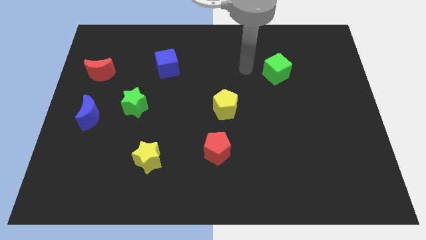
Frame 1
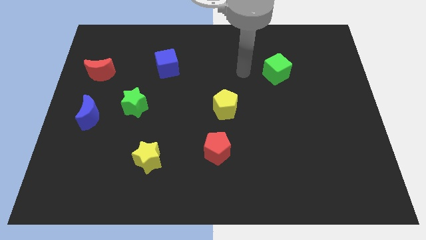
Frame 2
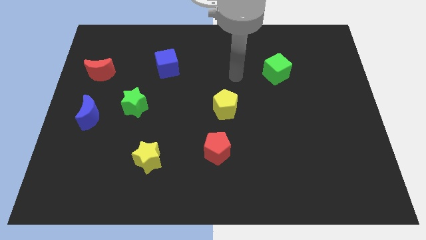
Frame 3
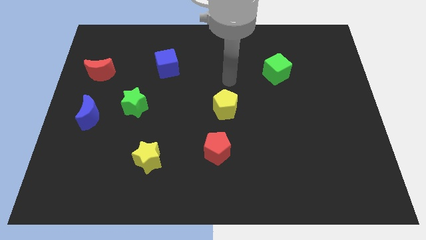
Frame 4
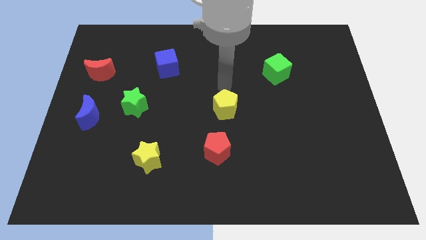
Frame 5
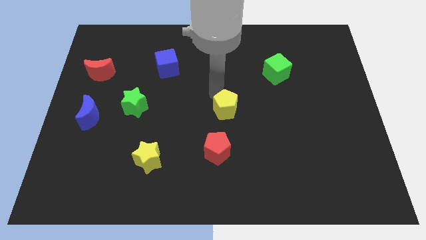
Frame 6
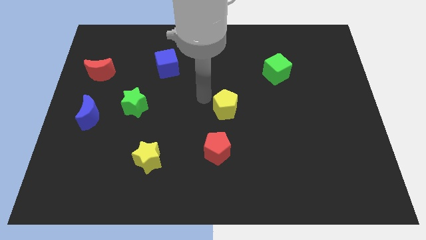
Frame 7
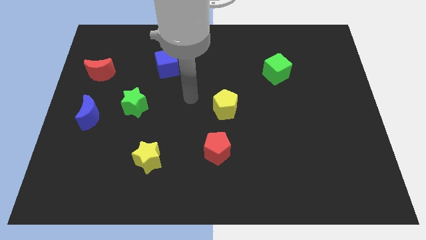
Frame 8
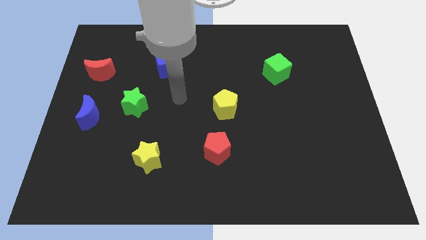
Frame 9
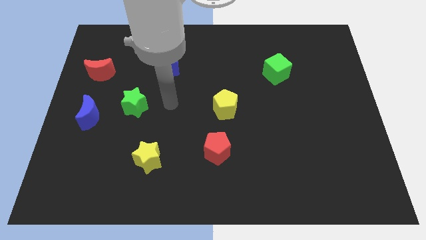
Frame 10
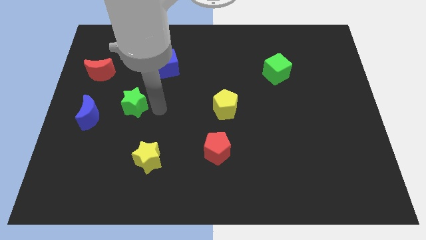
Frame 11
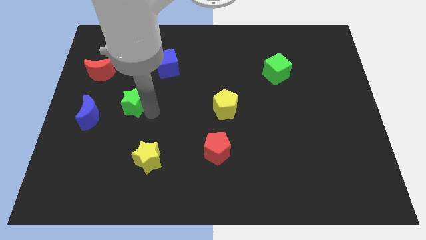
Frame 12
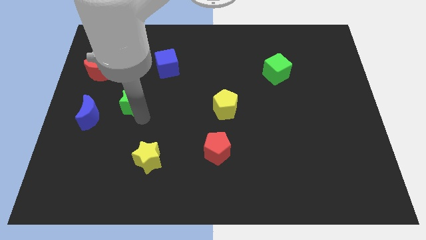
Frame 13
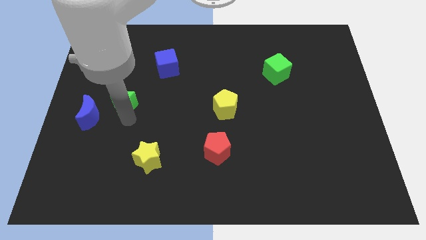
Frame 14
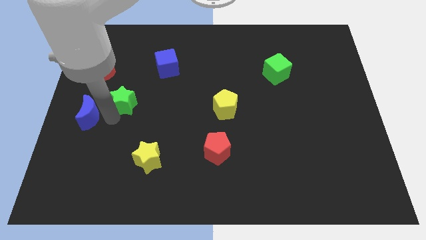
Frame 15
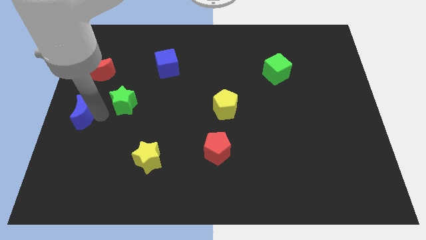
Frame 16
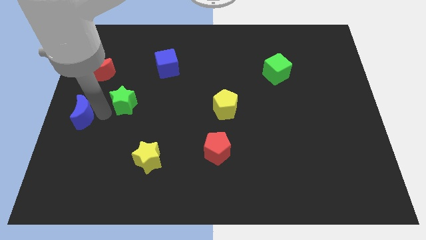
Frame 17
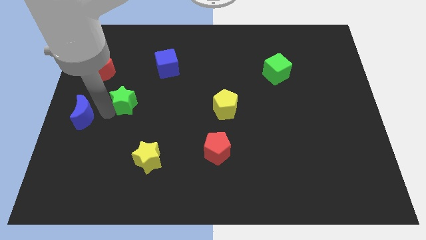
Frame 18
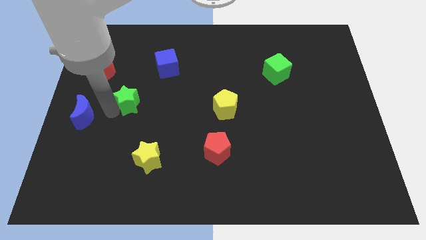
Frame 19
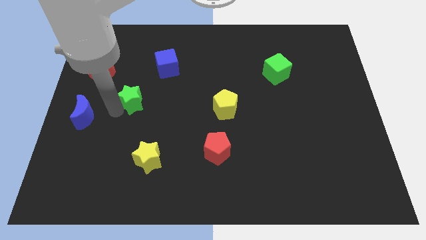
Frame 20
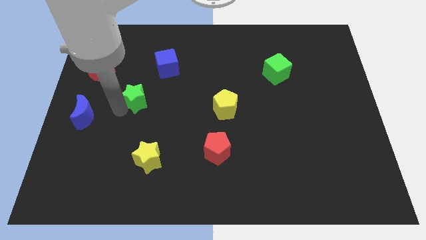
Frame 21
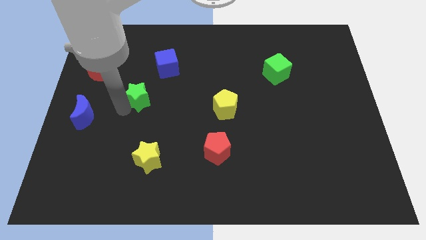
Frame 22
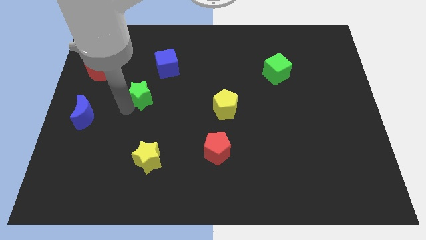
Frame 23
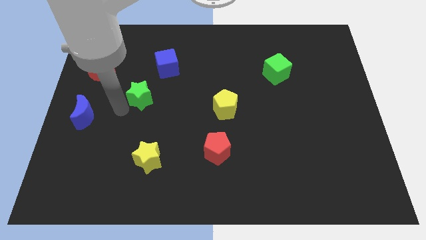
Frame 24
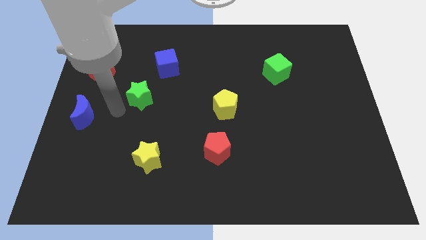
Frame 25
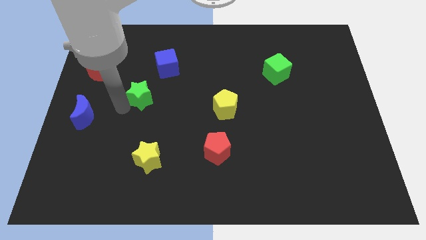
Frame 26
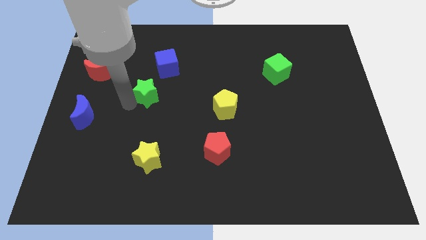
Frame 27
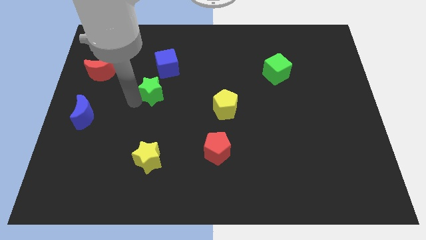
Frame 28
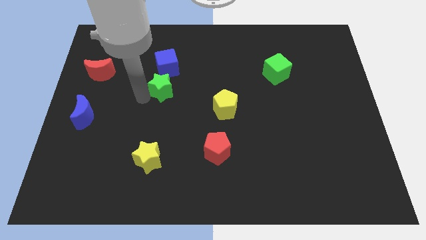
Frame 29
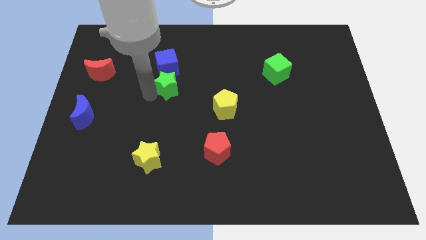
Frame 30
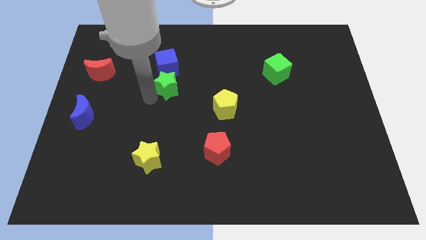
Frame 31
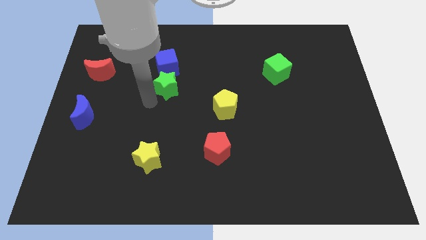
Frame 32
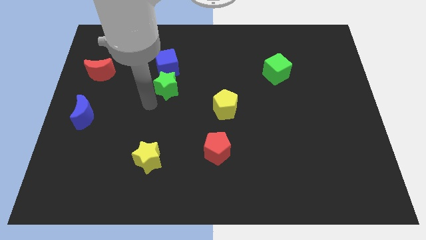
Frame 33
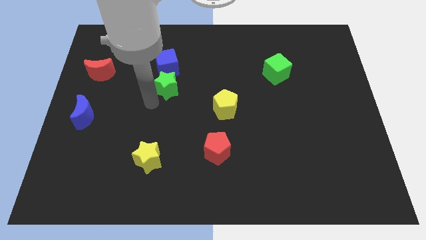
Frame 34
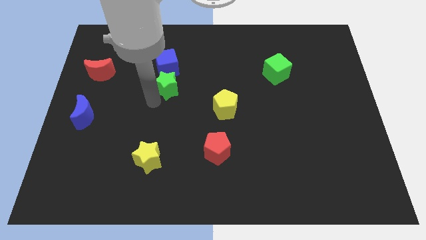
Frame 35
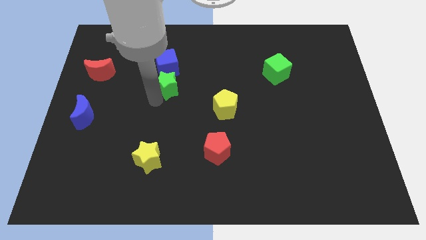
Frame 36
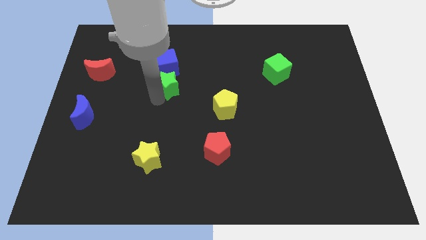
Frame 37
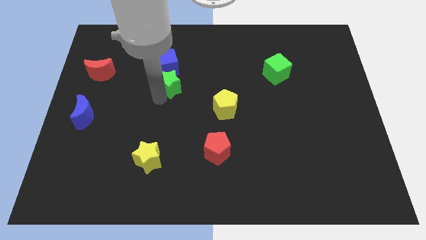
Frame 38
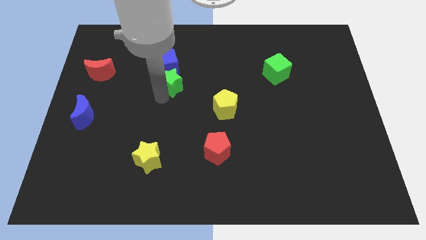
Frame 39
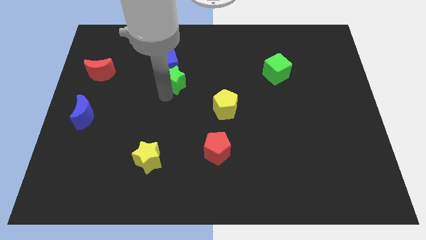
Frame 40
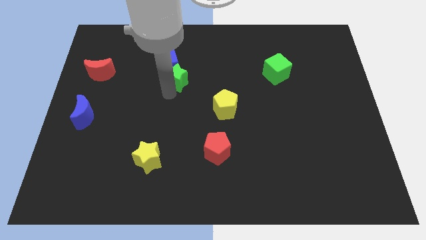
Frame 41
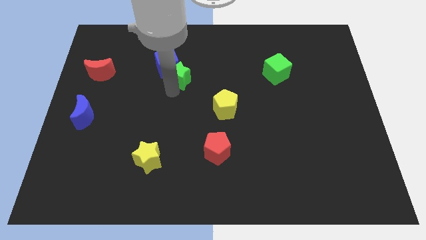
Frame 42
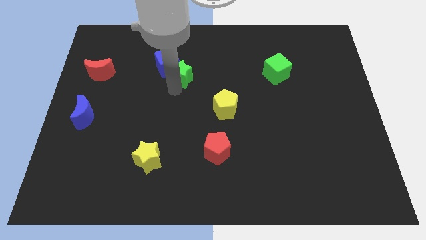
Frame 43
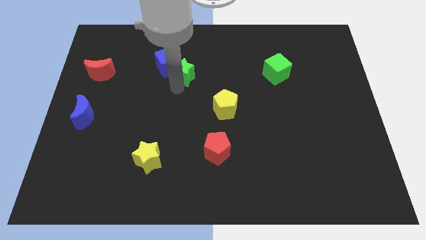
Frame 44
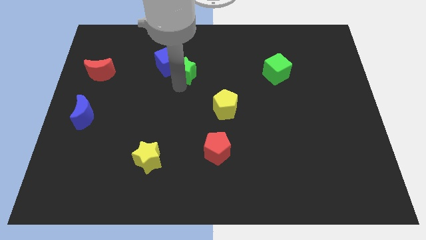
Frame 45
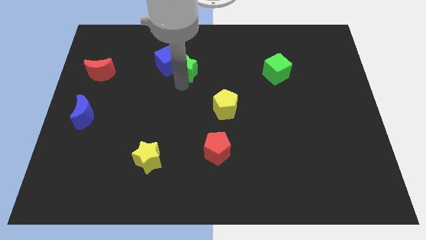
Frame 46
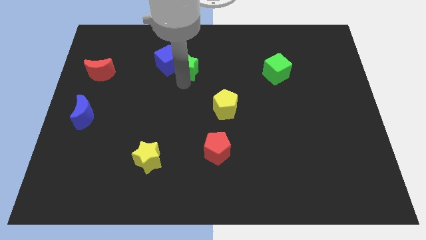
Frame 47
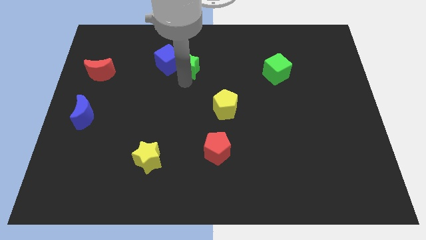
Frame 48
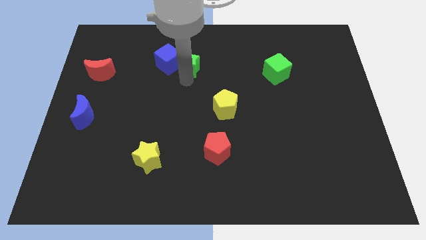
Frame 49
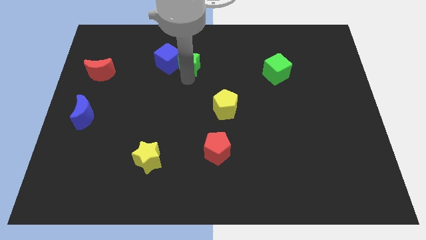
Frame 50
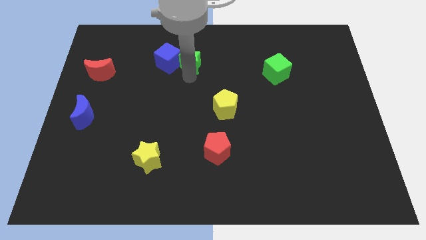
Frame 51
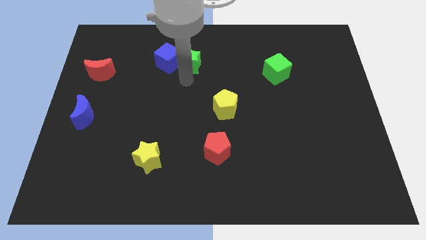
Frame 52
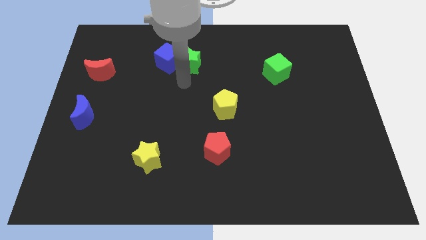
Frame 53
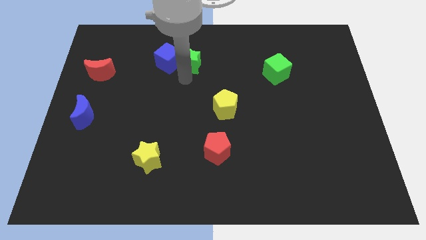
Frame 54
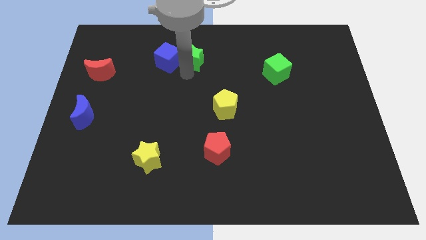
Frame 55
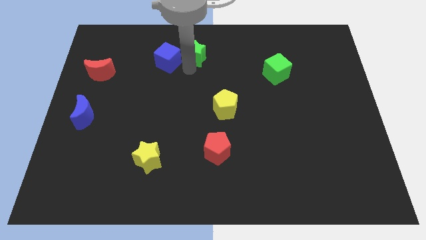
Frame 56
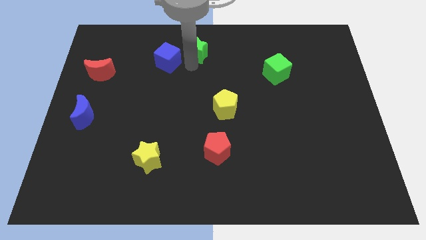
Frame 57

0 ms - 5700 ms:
put the green star to the top

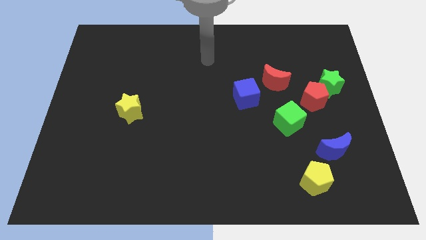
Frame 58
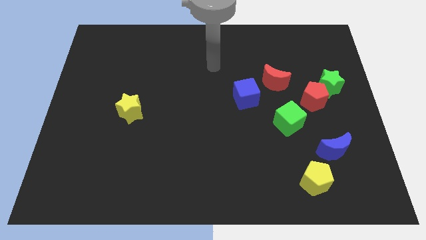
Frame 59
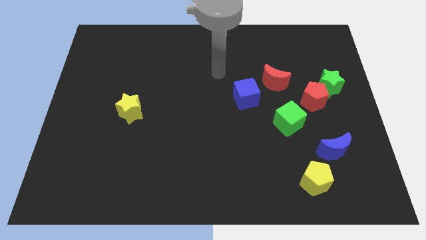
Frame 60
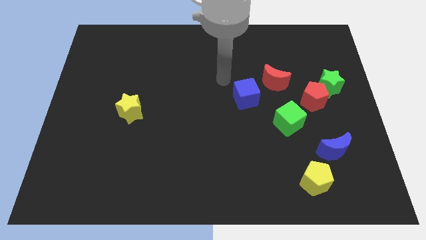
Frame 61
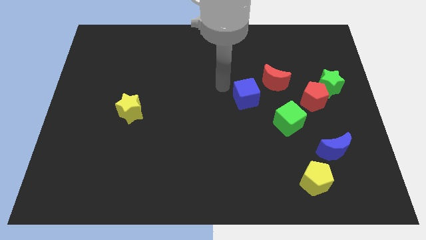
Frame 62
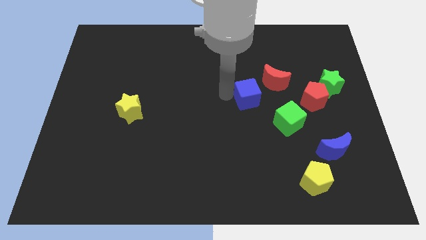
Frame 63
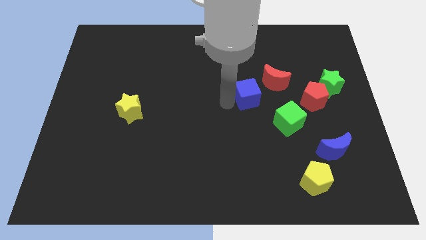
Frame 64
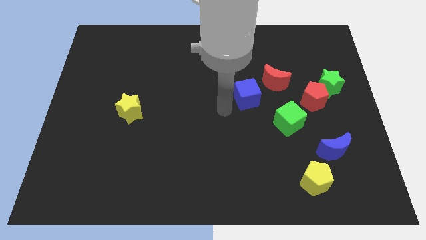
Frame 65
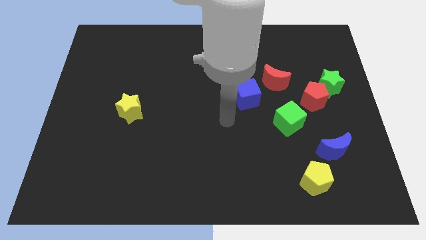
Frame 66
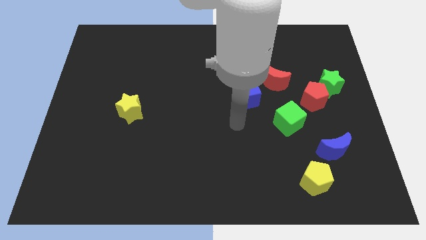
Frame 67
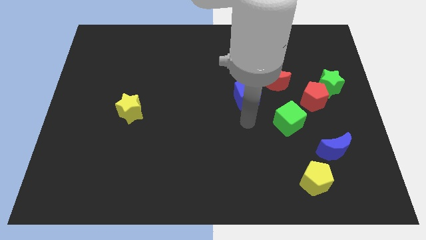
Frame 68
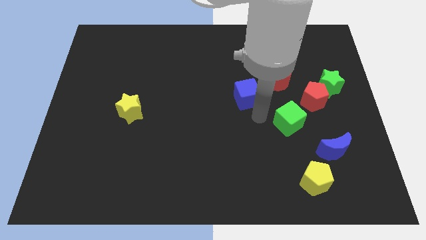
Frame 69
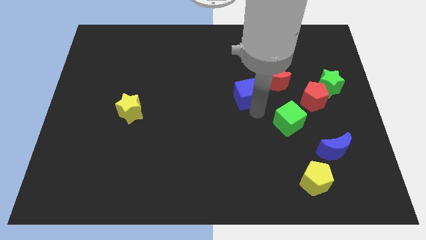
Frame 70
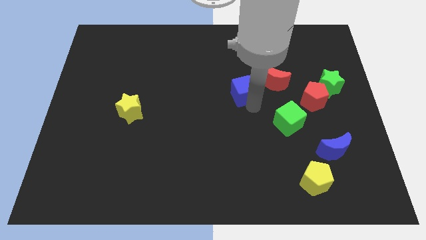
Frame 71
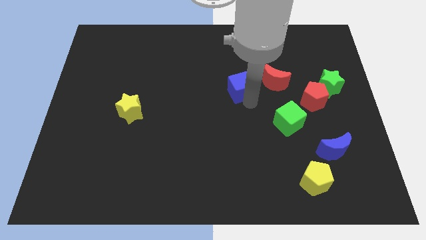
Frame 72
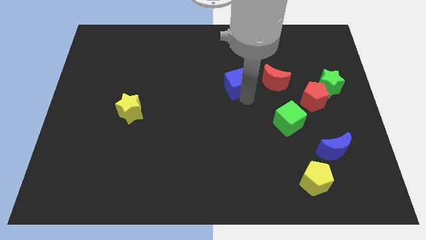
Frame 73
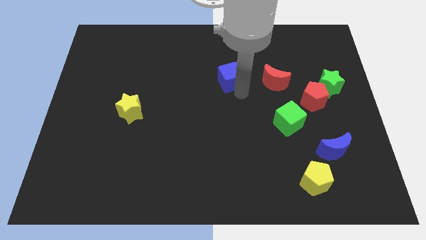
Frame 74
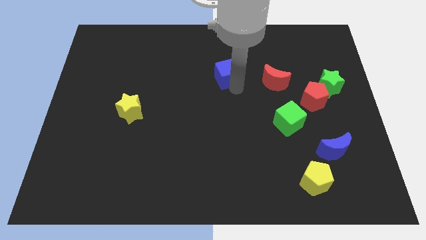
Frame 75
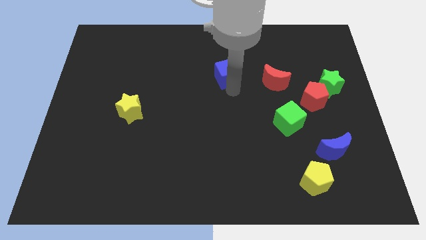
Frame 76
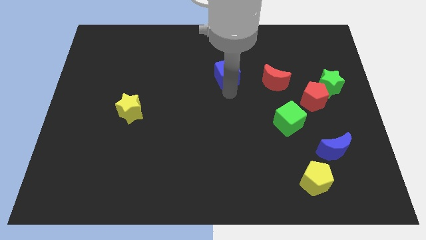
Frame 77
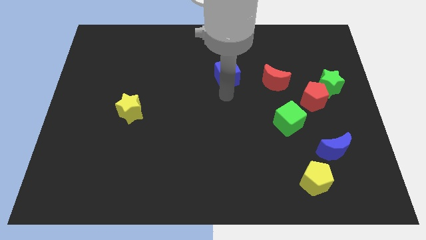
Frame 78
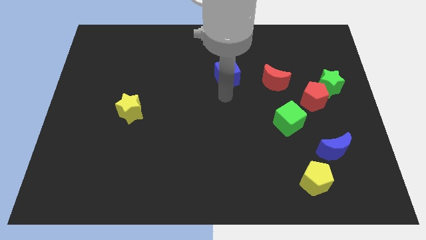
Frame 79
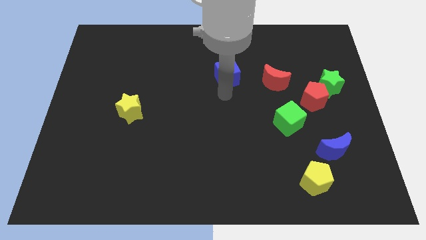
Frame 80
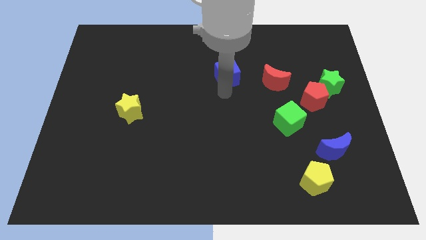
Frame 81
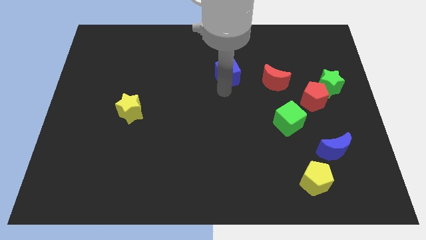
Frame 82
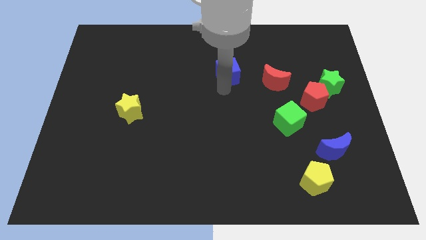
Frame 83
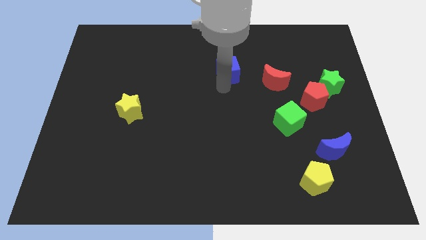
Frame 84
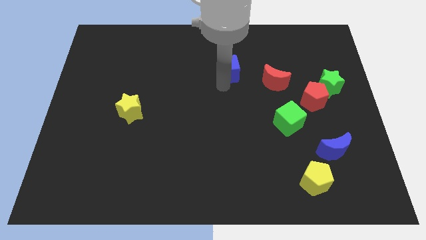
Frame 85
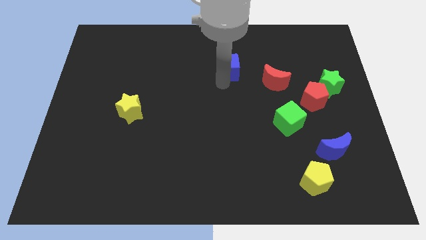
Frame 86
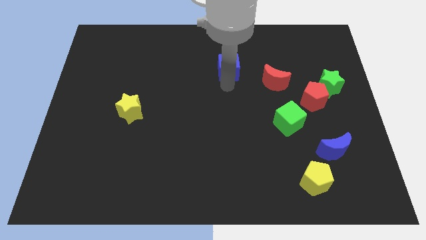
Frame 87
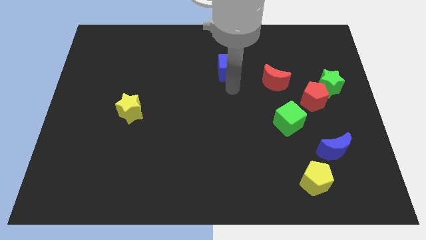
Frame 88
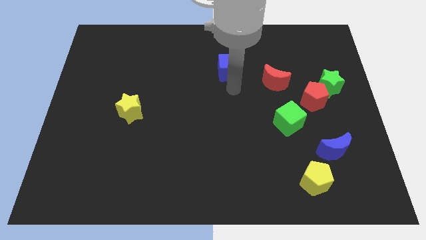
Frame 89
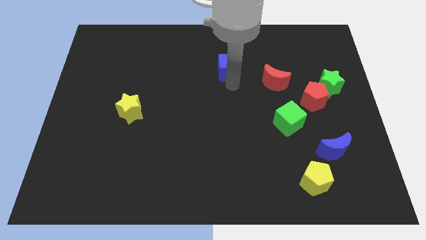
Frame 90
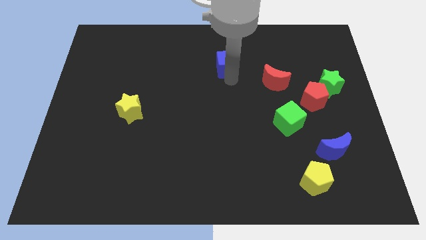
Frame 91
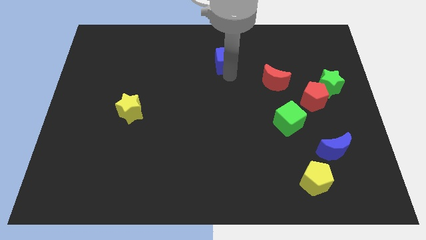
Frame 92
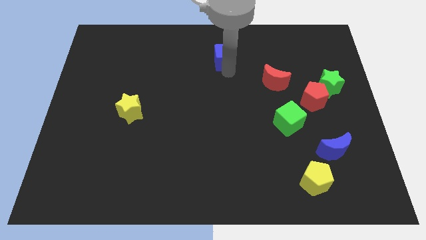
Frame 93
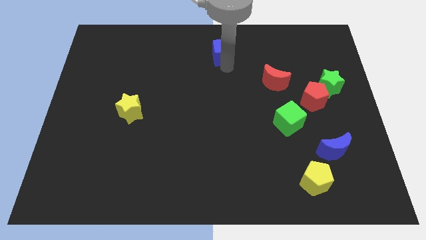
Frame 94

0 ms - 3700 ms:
put the blue cube to the towards your base
